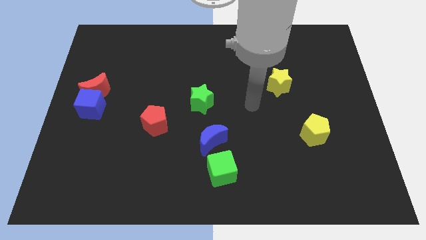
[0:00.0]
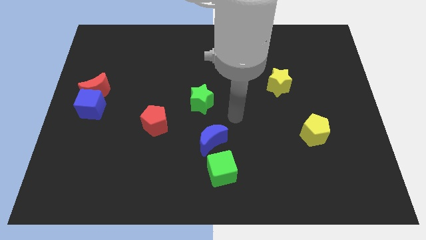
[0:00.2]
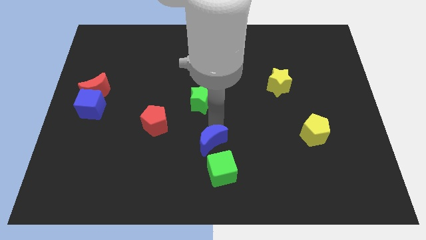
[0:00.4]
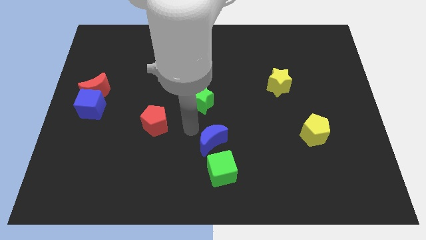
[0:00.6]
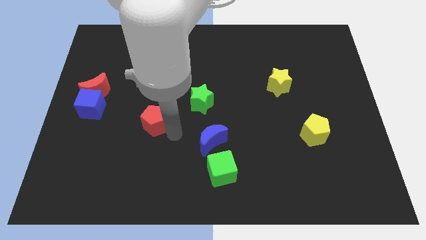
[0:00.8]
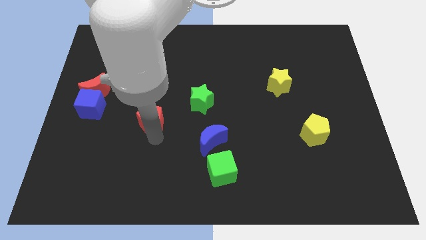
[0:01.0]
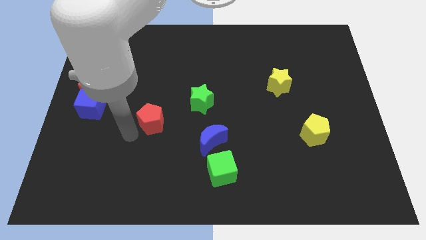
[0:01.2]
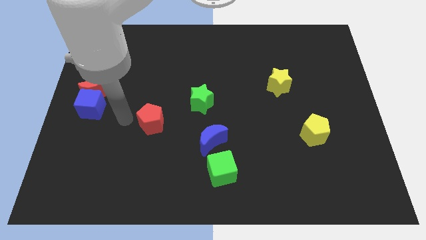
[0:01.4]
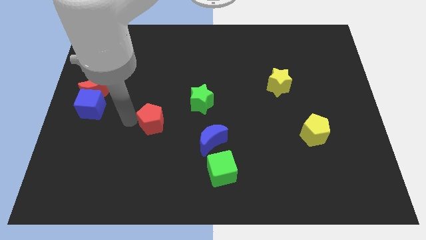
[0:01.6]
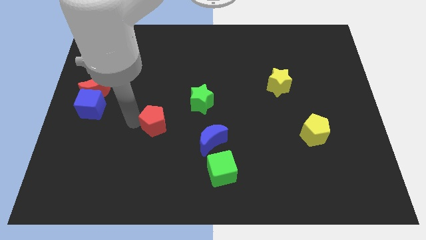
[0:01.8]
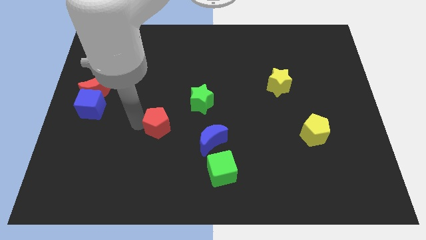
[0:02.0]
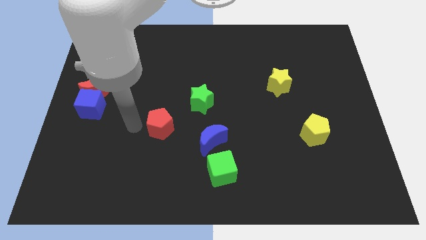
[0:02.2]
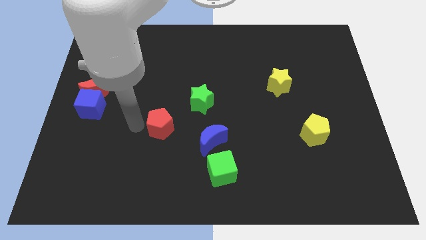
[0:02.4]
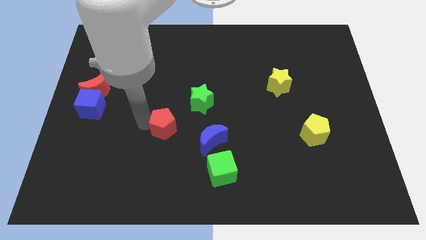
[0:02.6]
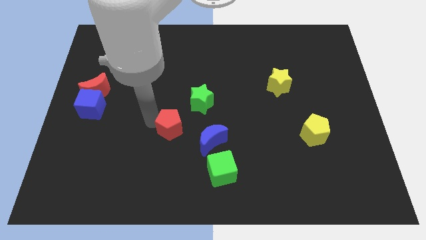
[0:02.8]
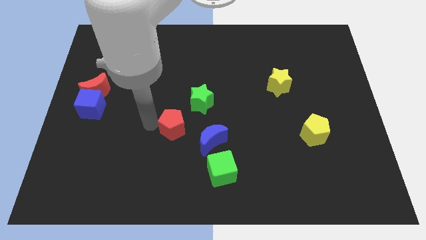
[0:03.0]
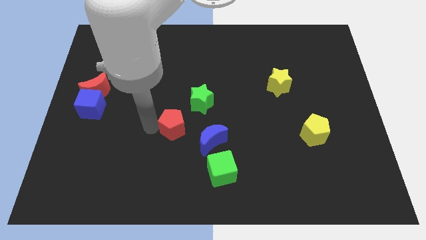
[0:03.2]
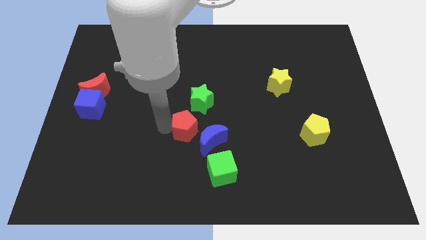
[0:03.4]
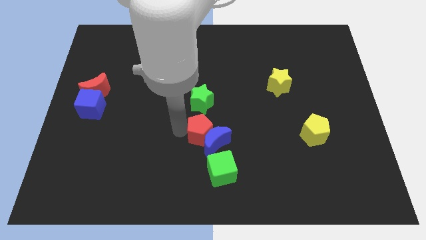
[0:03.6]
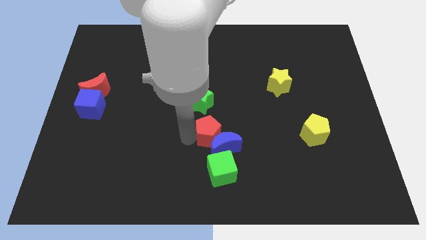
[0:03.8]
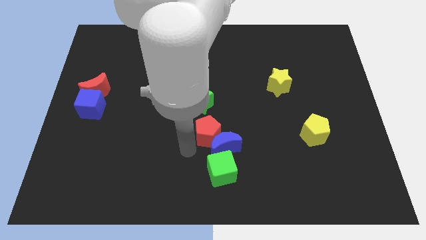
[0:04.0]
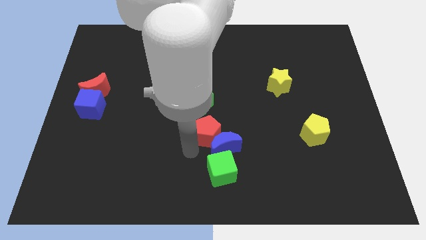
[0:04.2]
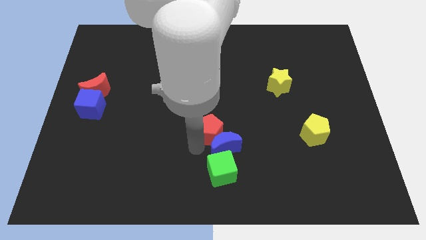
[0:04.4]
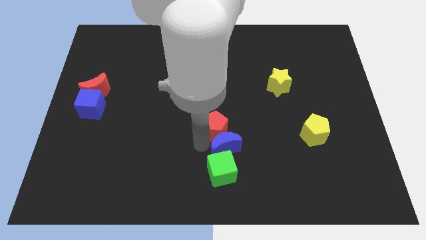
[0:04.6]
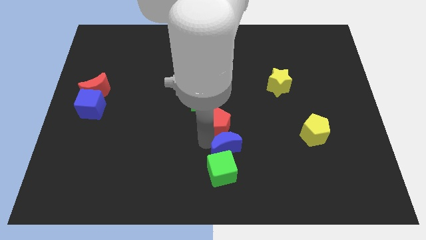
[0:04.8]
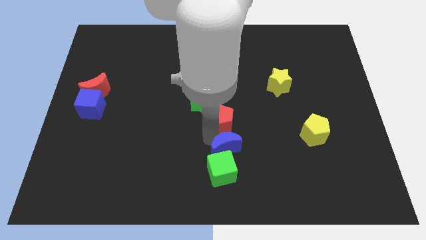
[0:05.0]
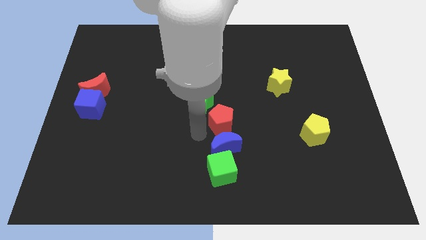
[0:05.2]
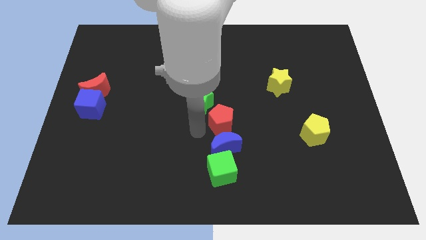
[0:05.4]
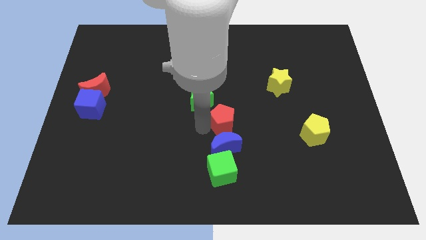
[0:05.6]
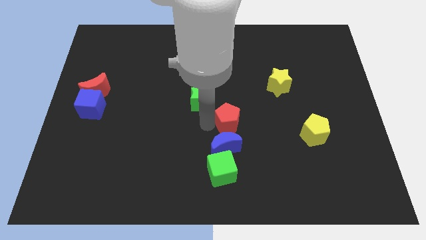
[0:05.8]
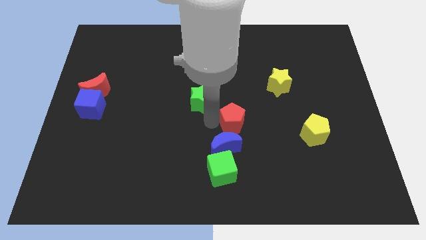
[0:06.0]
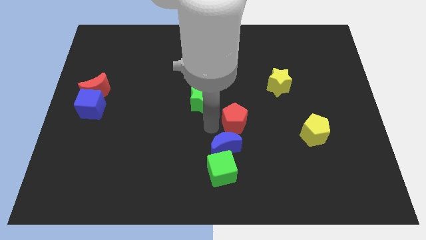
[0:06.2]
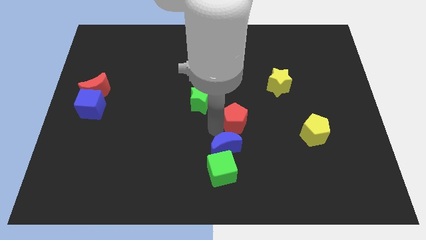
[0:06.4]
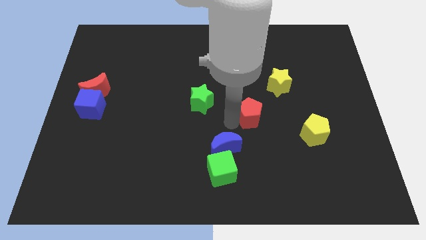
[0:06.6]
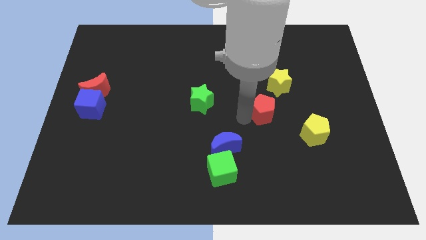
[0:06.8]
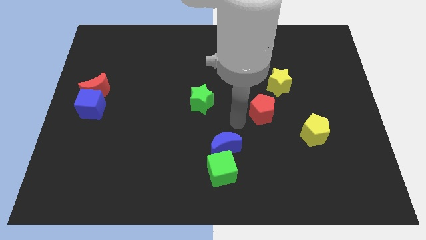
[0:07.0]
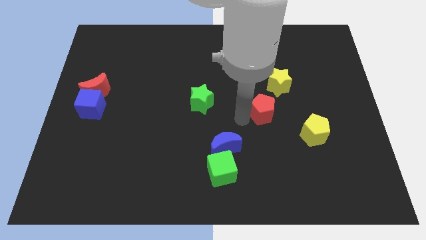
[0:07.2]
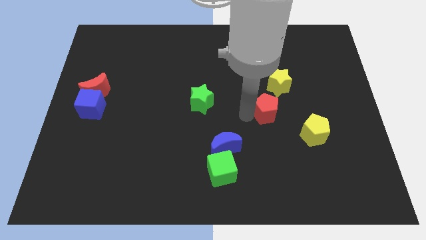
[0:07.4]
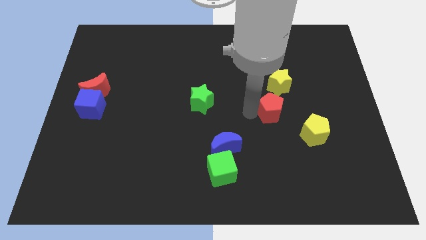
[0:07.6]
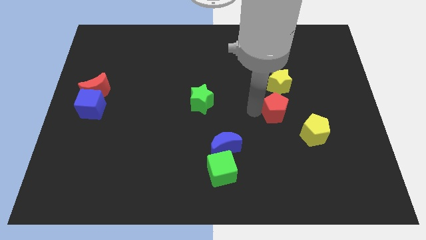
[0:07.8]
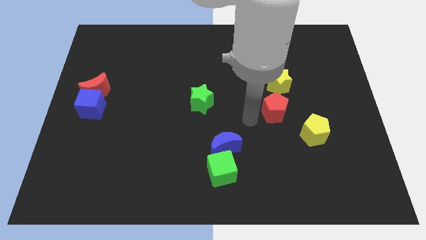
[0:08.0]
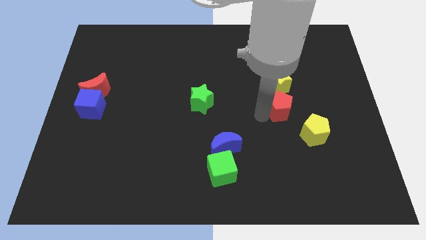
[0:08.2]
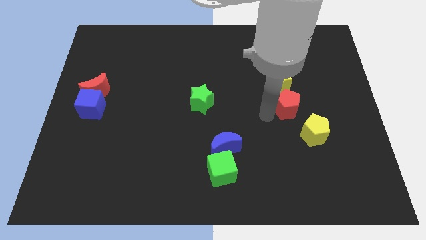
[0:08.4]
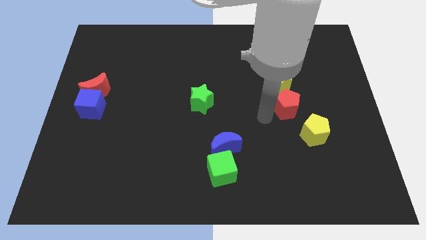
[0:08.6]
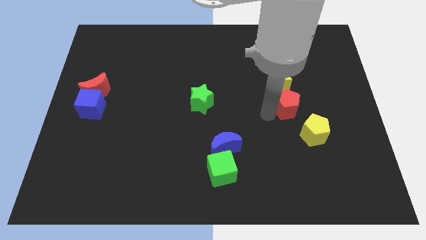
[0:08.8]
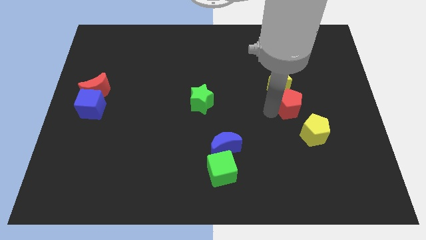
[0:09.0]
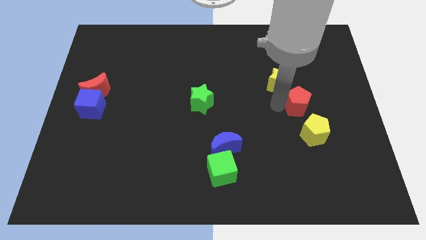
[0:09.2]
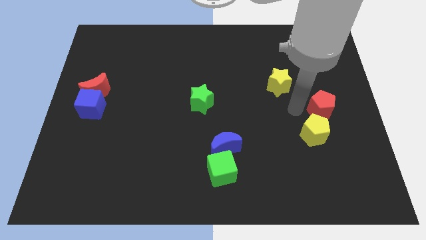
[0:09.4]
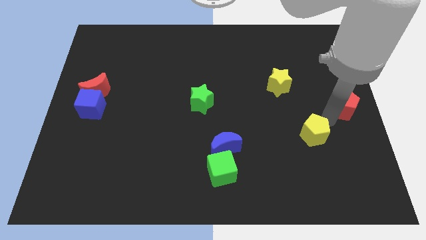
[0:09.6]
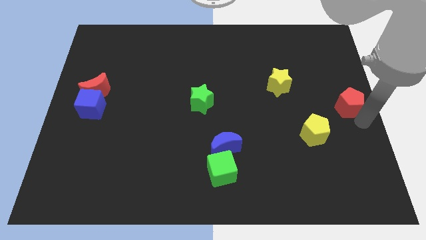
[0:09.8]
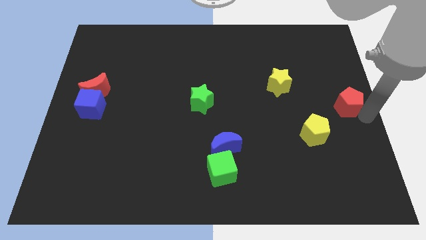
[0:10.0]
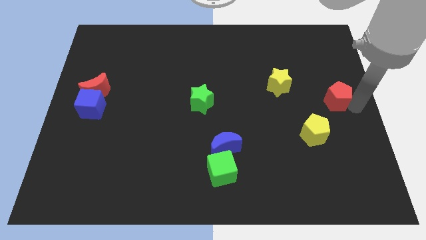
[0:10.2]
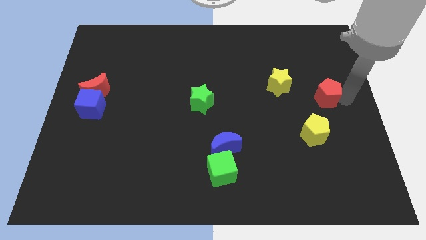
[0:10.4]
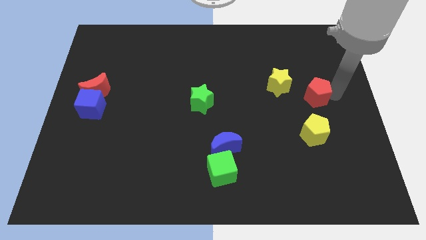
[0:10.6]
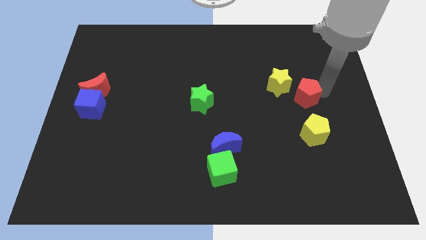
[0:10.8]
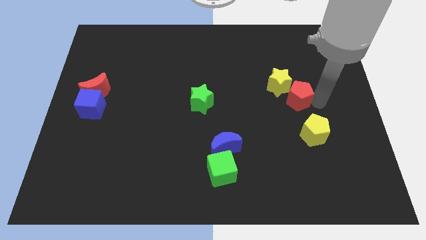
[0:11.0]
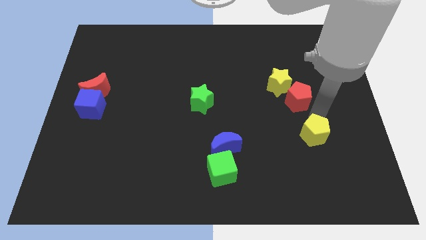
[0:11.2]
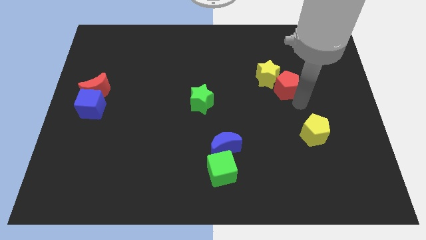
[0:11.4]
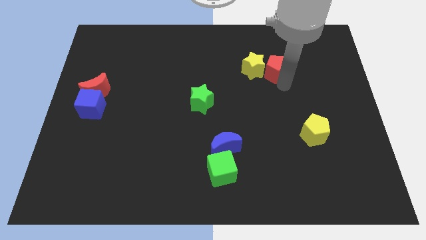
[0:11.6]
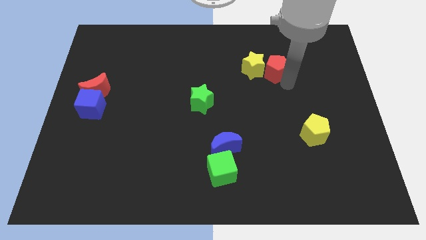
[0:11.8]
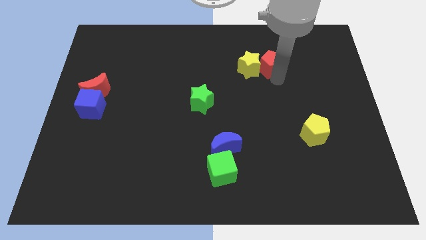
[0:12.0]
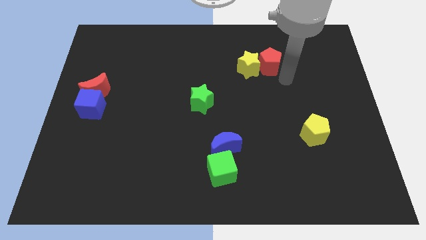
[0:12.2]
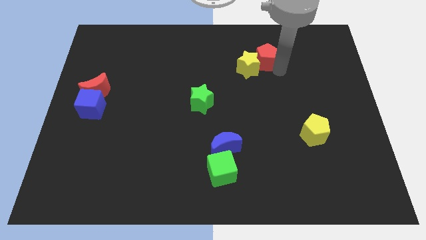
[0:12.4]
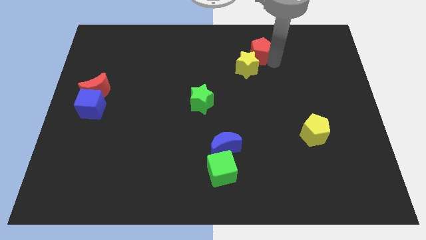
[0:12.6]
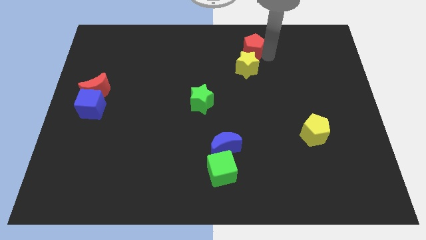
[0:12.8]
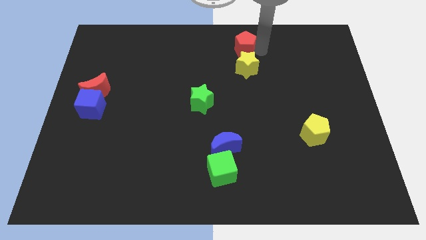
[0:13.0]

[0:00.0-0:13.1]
slide the red pentagon to the top side

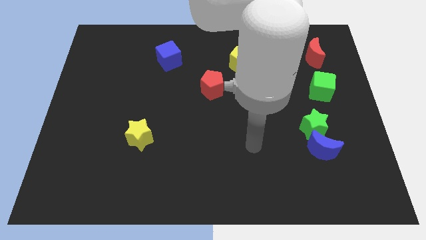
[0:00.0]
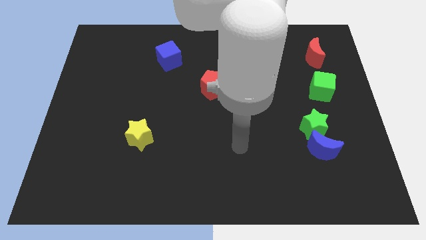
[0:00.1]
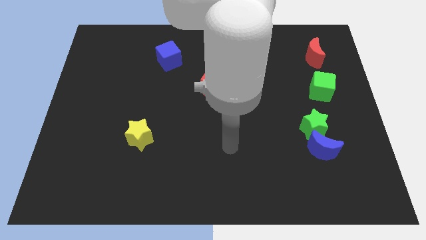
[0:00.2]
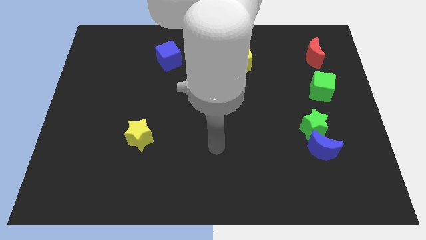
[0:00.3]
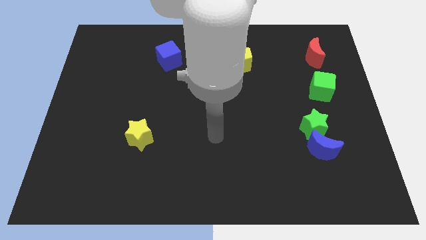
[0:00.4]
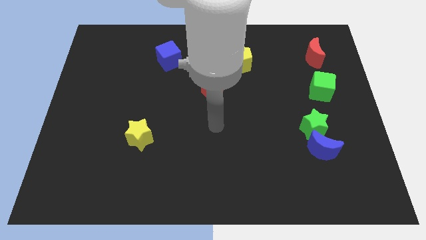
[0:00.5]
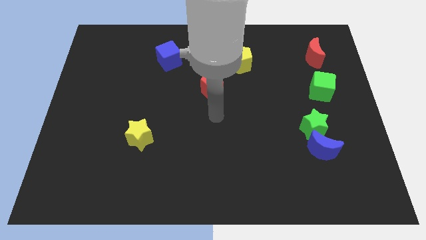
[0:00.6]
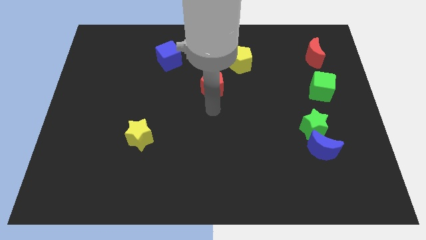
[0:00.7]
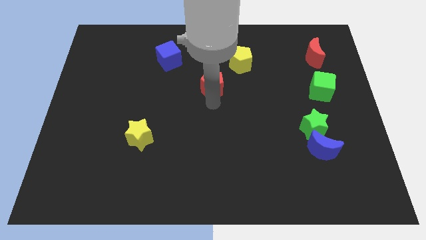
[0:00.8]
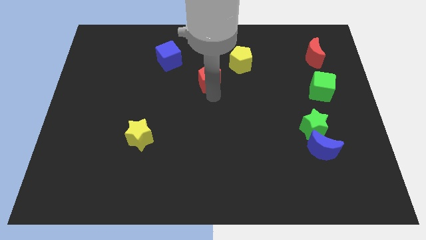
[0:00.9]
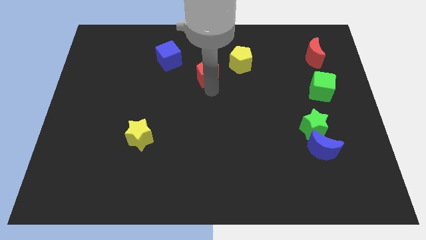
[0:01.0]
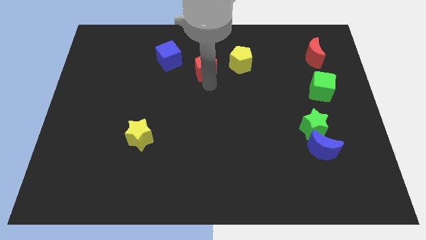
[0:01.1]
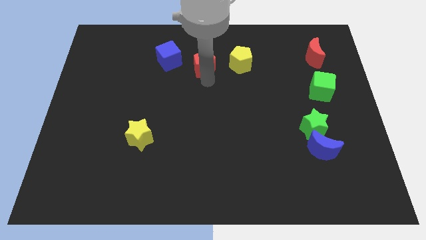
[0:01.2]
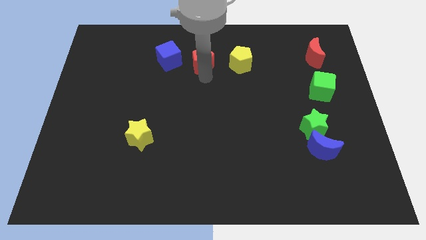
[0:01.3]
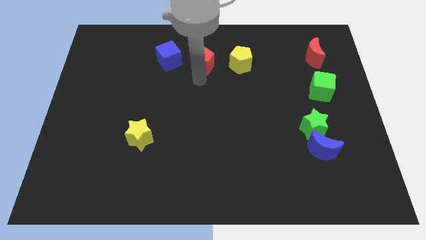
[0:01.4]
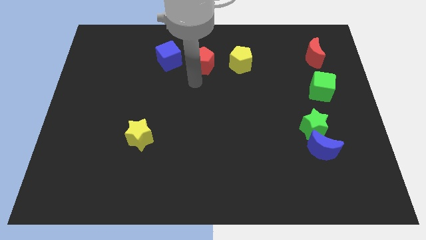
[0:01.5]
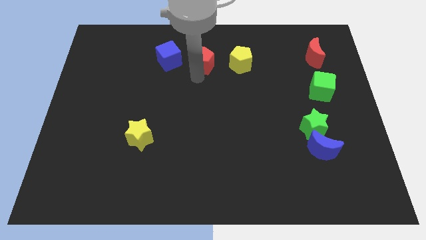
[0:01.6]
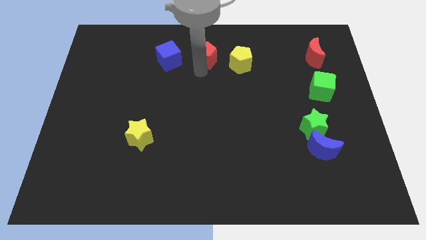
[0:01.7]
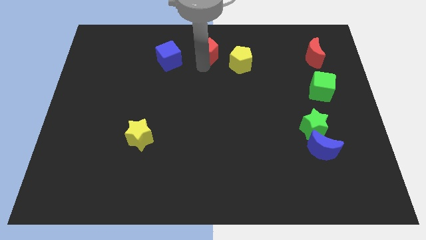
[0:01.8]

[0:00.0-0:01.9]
slide the red pentagon to the top
